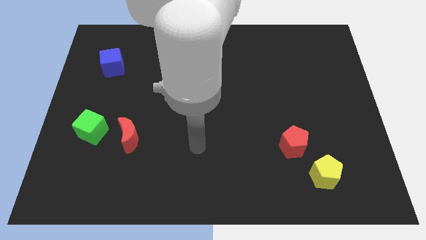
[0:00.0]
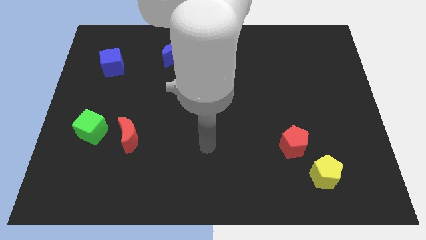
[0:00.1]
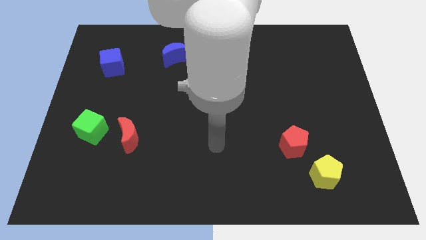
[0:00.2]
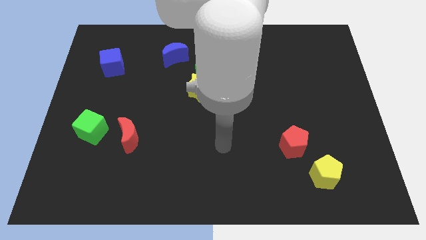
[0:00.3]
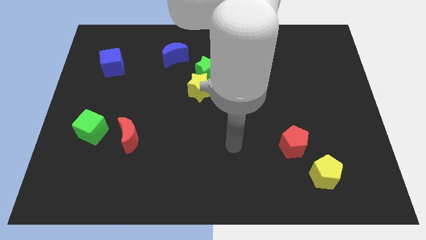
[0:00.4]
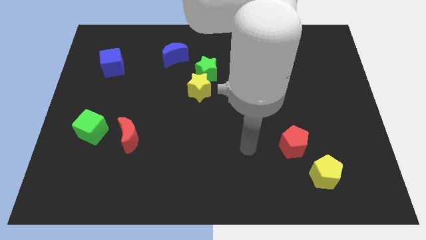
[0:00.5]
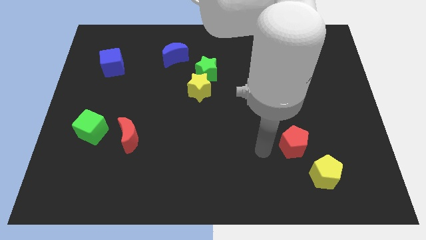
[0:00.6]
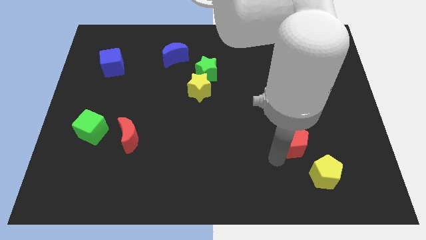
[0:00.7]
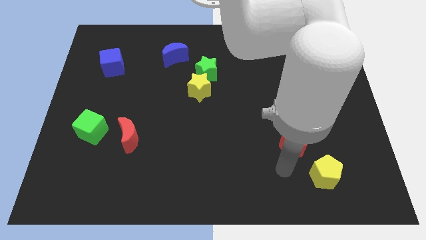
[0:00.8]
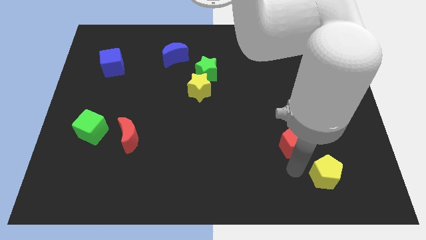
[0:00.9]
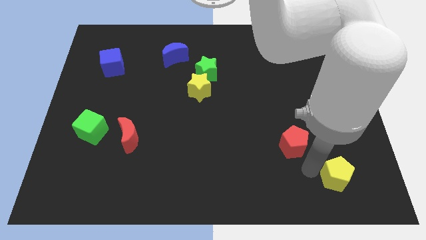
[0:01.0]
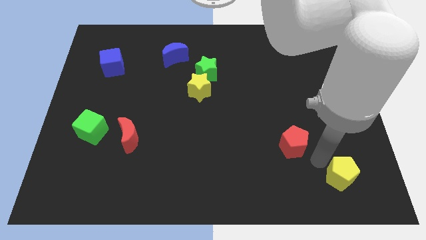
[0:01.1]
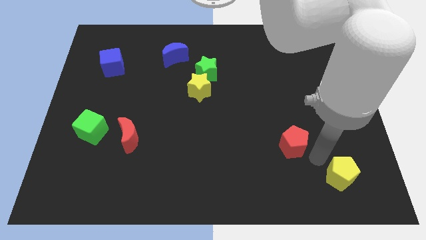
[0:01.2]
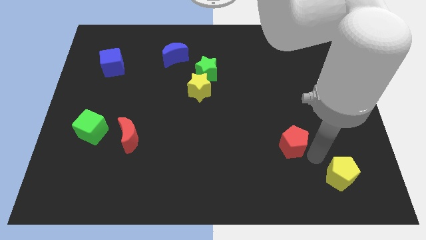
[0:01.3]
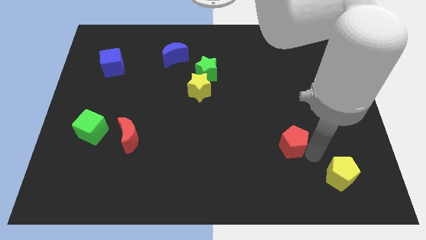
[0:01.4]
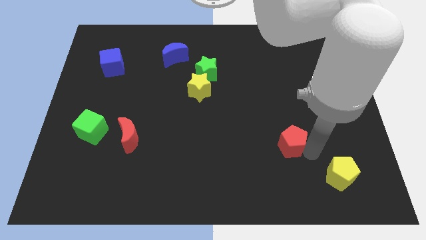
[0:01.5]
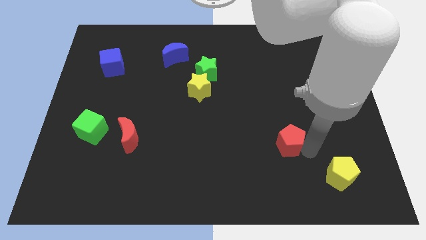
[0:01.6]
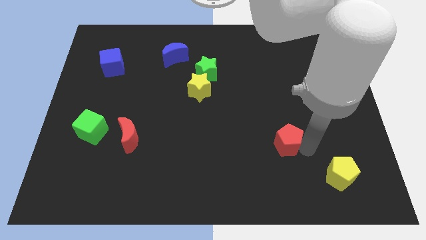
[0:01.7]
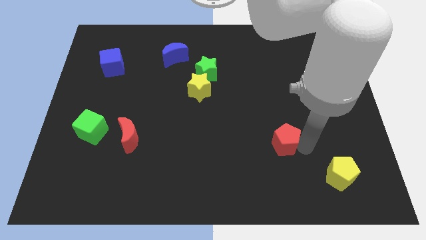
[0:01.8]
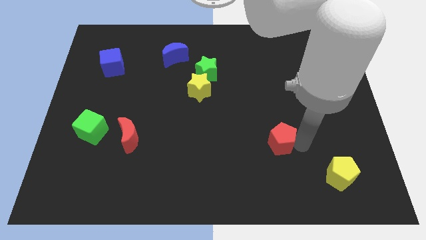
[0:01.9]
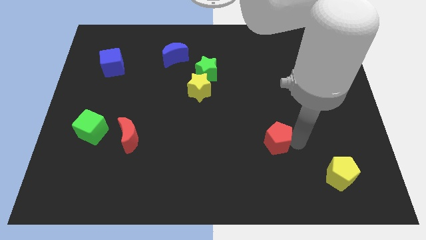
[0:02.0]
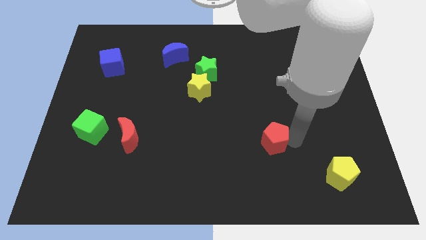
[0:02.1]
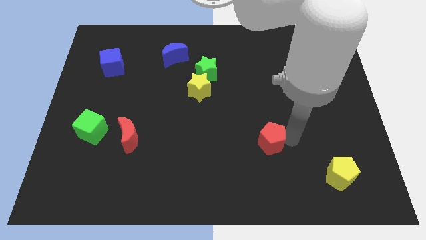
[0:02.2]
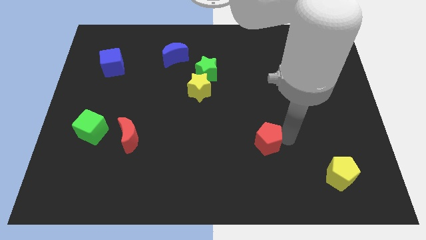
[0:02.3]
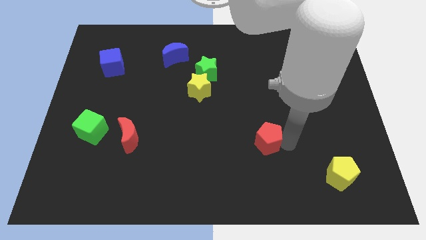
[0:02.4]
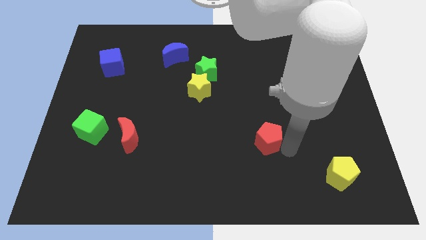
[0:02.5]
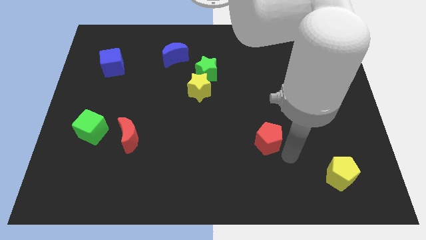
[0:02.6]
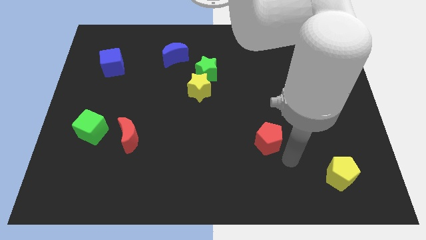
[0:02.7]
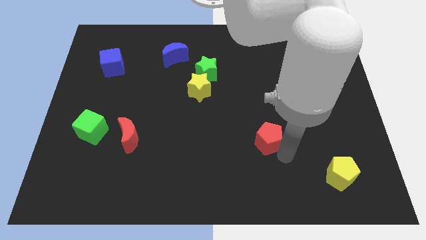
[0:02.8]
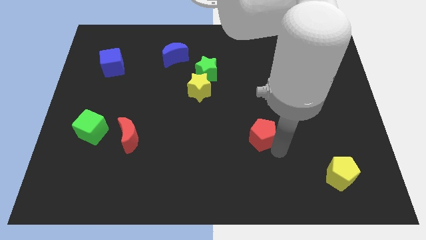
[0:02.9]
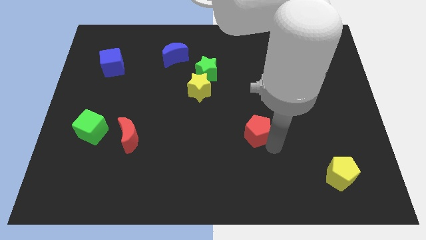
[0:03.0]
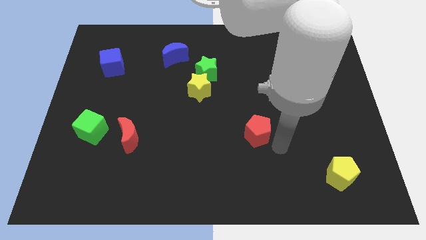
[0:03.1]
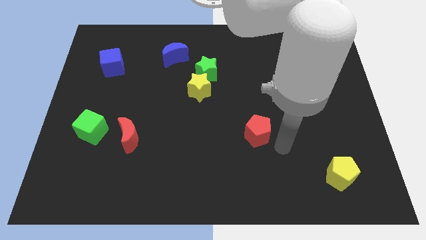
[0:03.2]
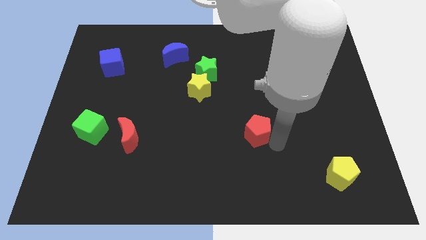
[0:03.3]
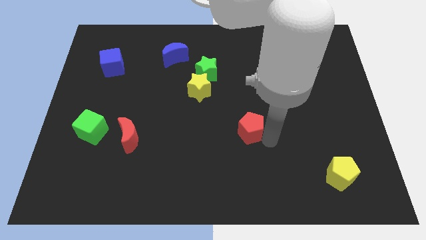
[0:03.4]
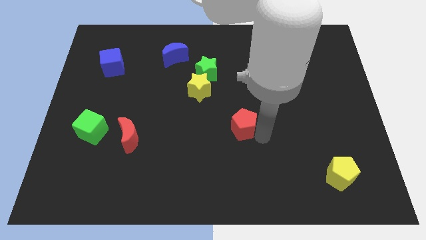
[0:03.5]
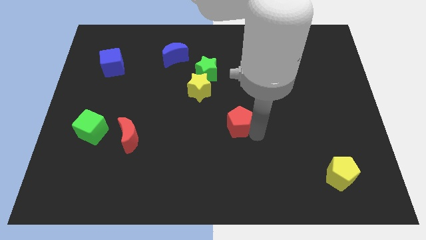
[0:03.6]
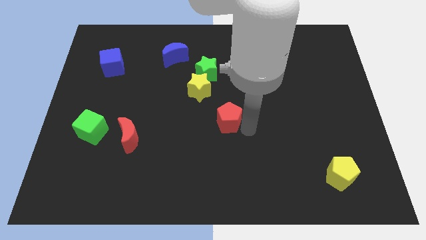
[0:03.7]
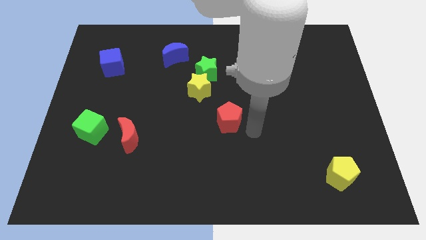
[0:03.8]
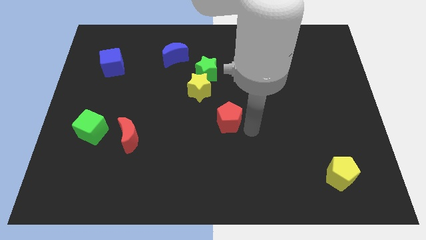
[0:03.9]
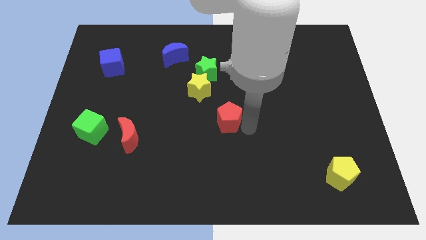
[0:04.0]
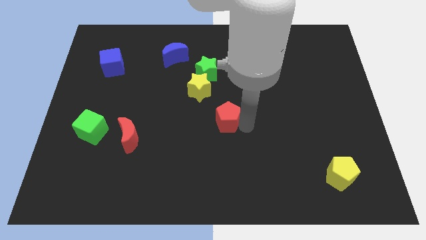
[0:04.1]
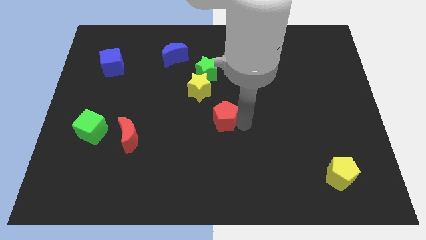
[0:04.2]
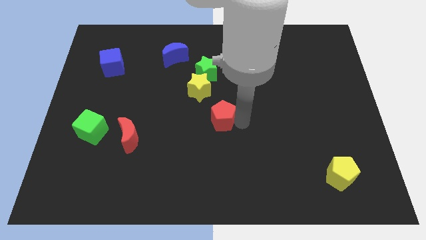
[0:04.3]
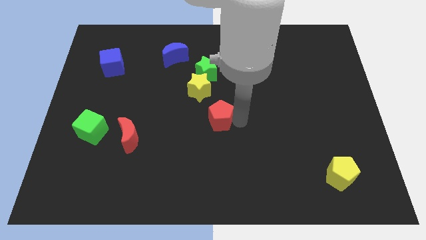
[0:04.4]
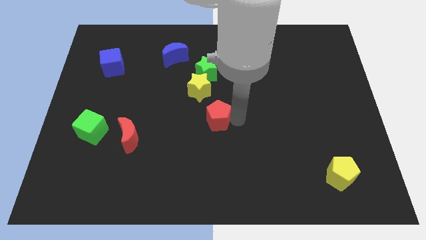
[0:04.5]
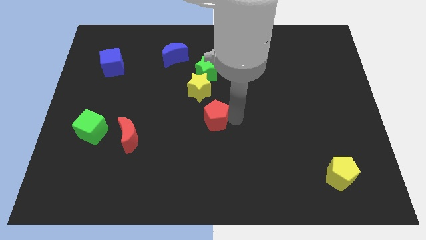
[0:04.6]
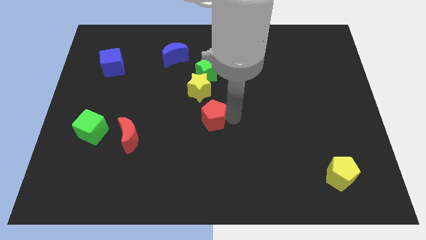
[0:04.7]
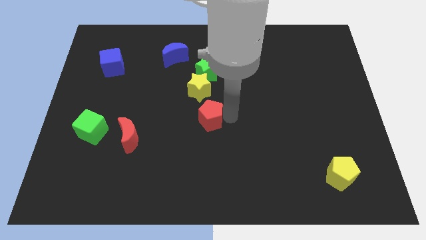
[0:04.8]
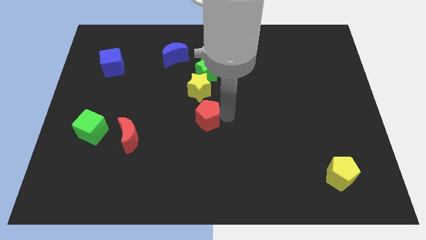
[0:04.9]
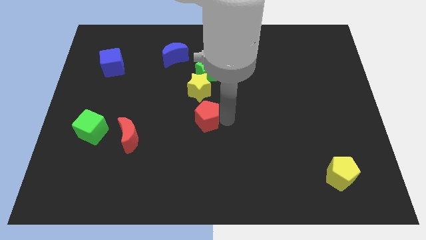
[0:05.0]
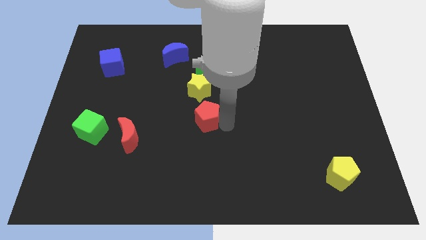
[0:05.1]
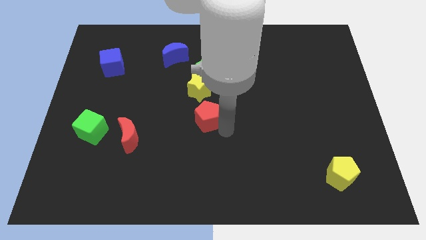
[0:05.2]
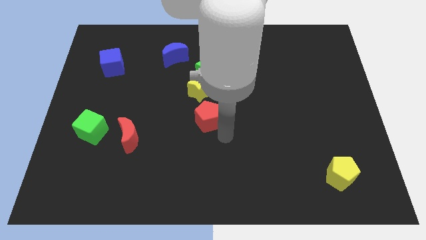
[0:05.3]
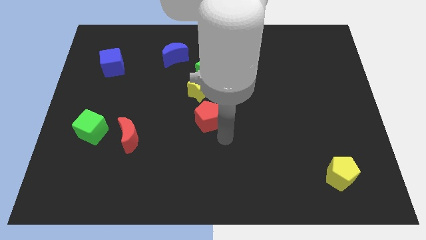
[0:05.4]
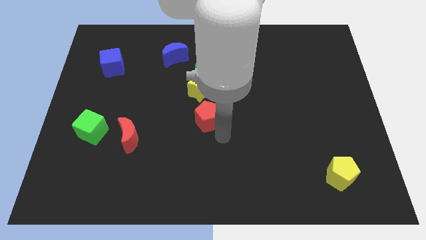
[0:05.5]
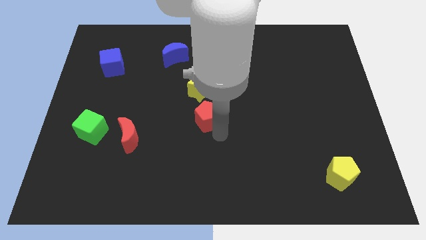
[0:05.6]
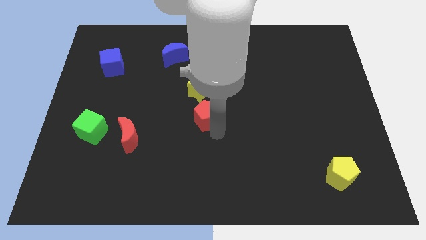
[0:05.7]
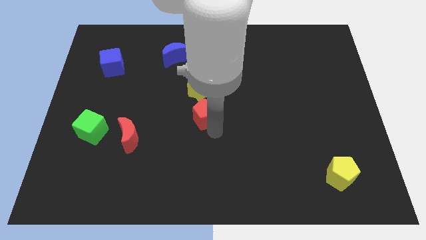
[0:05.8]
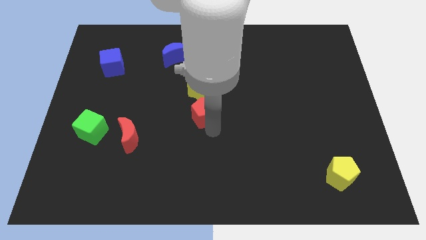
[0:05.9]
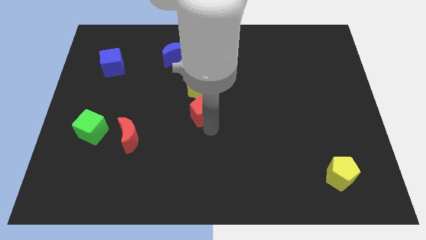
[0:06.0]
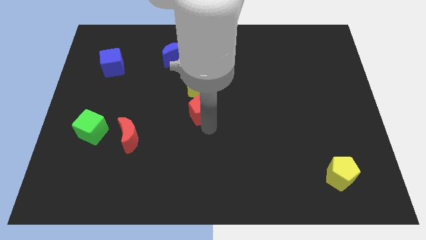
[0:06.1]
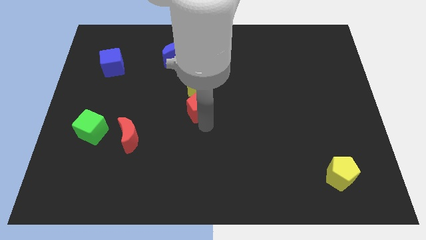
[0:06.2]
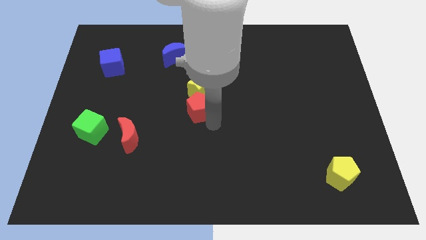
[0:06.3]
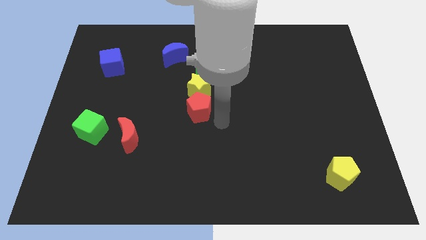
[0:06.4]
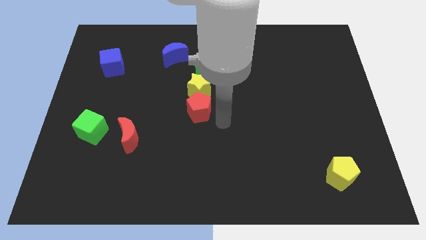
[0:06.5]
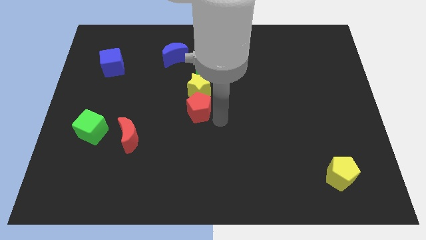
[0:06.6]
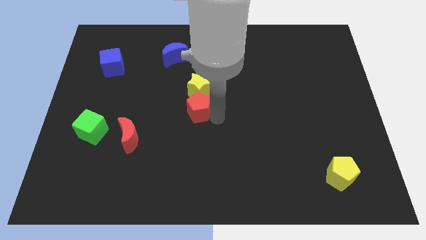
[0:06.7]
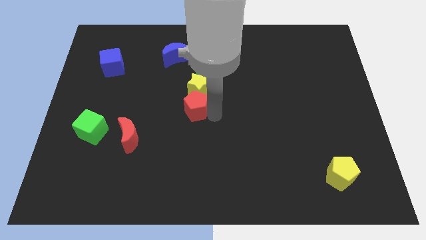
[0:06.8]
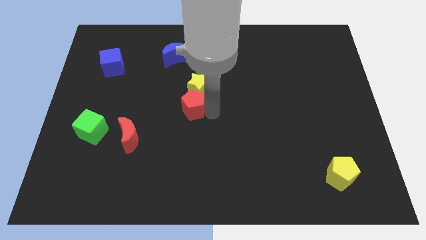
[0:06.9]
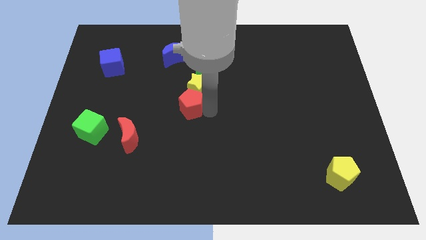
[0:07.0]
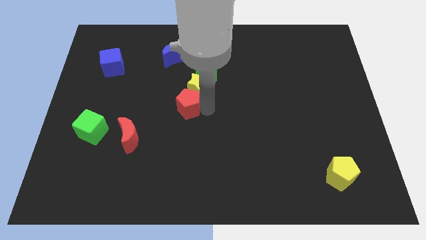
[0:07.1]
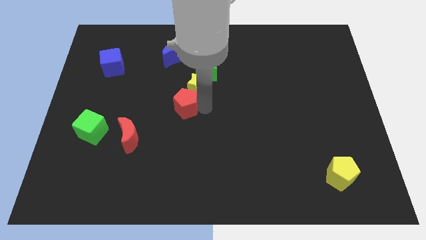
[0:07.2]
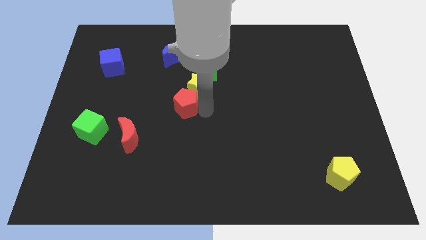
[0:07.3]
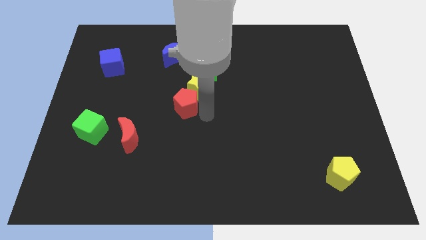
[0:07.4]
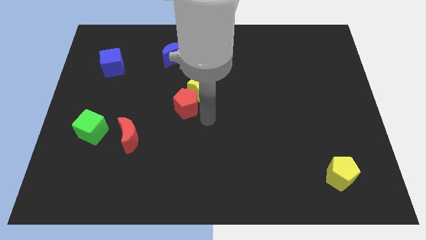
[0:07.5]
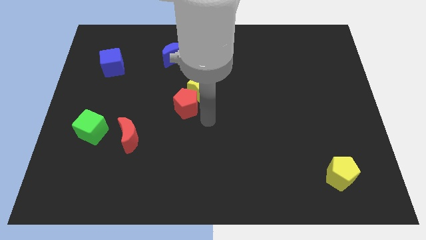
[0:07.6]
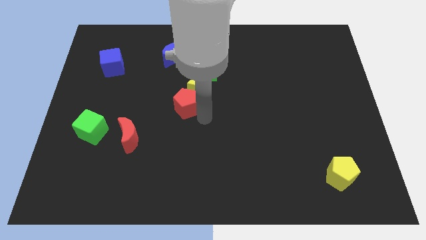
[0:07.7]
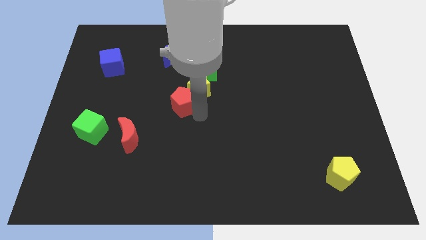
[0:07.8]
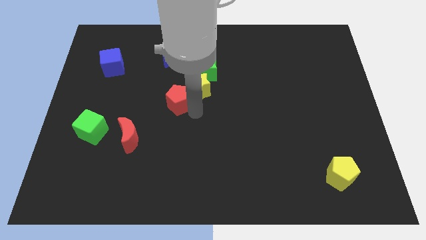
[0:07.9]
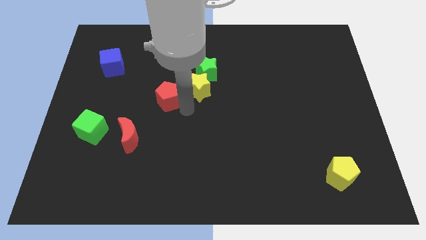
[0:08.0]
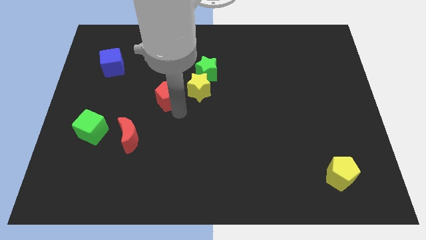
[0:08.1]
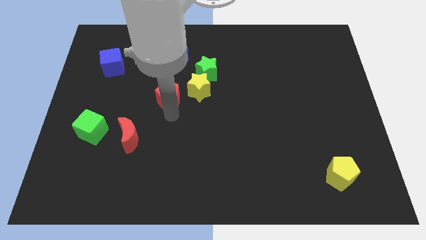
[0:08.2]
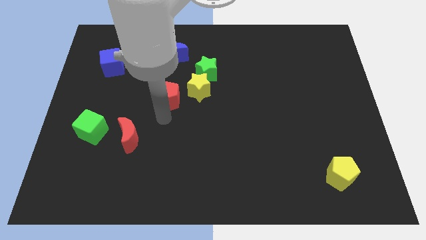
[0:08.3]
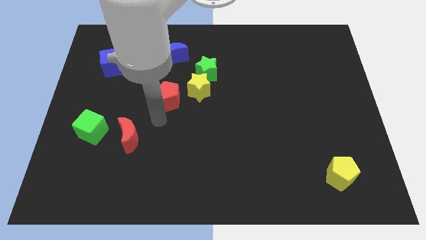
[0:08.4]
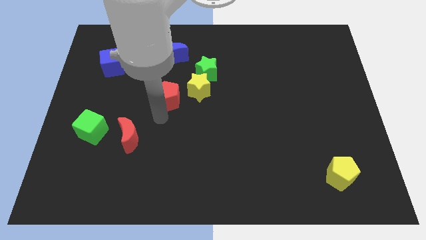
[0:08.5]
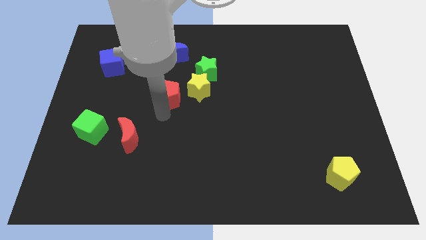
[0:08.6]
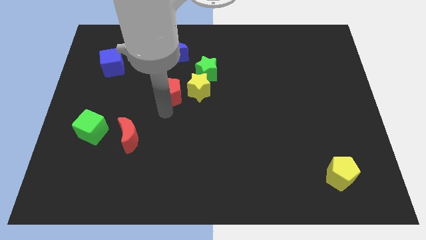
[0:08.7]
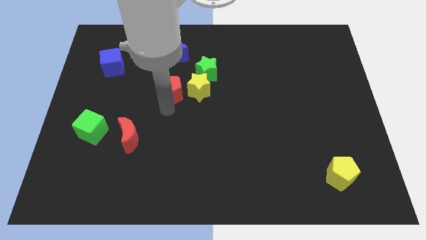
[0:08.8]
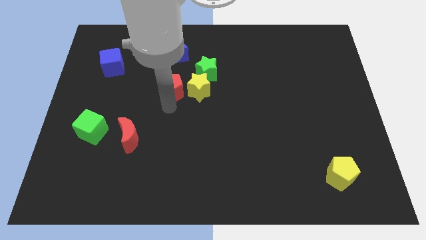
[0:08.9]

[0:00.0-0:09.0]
put the red pentagon to the top left side of the yellow star
